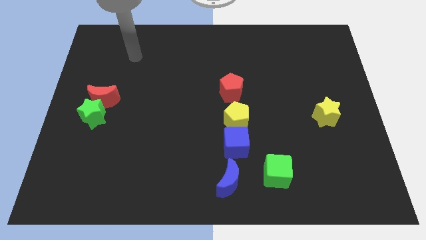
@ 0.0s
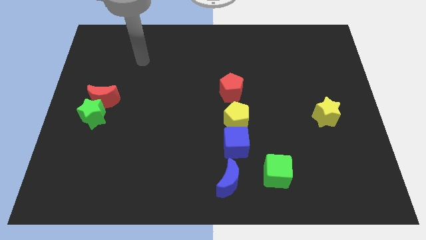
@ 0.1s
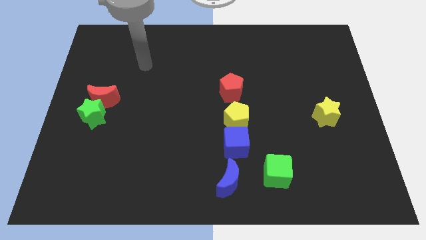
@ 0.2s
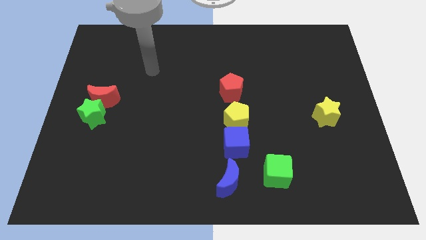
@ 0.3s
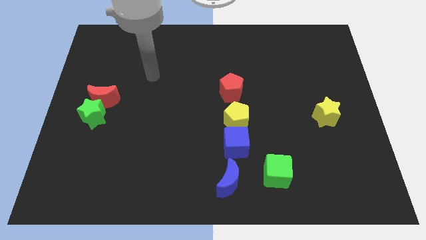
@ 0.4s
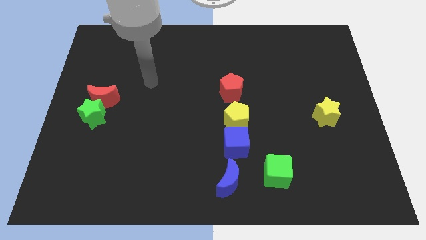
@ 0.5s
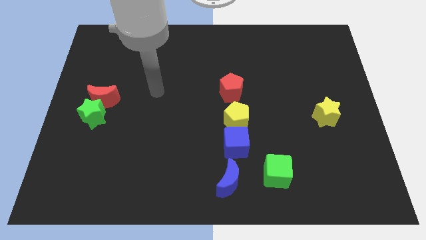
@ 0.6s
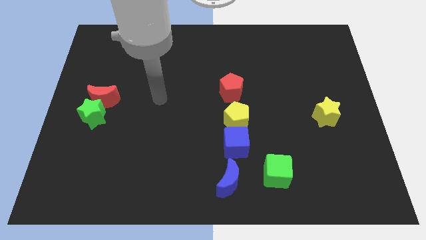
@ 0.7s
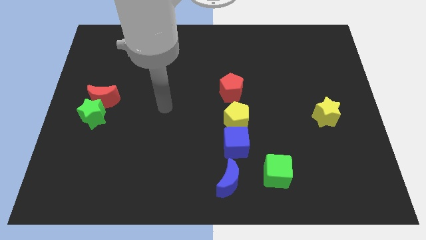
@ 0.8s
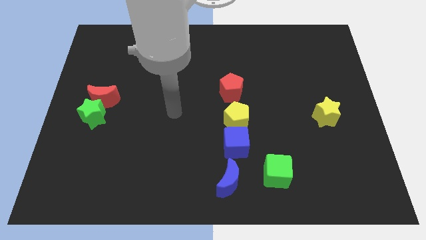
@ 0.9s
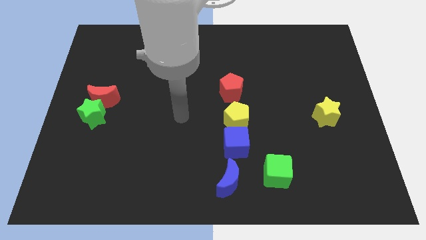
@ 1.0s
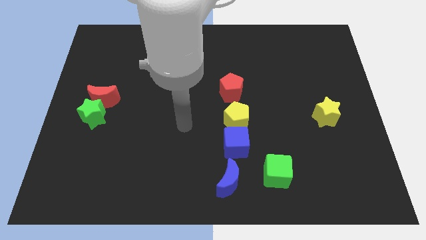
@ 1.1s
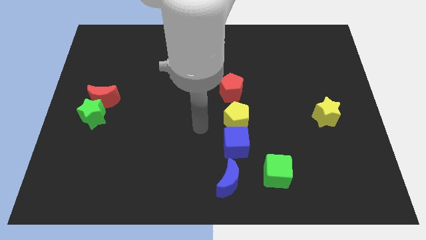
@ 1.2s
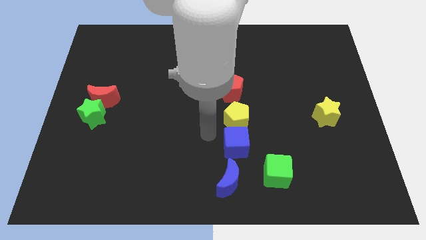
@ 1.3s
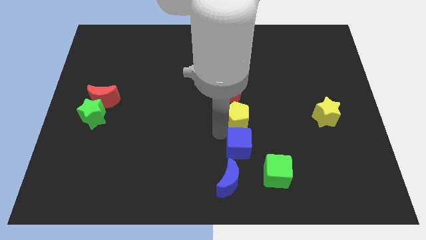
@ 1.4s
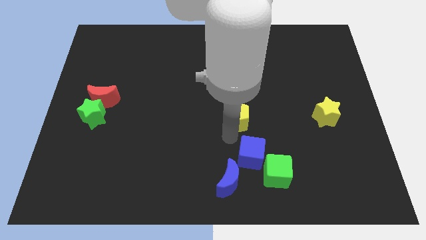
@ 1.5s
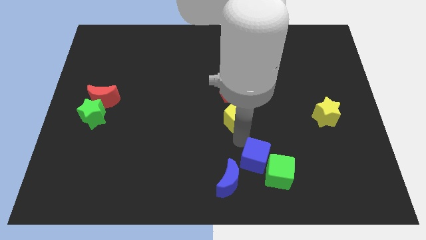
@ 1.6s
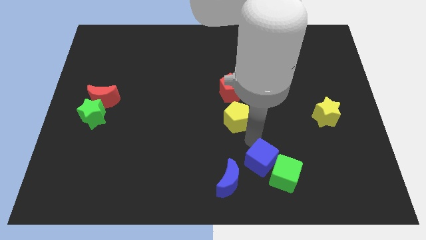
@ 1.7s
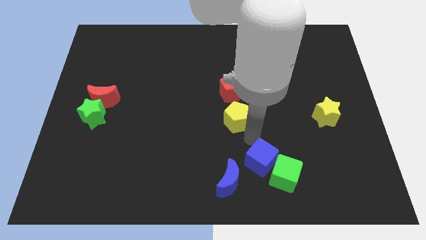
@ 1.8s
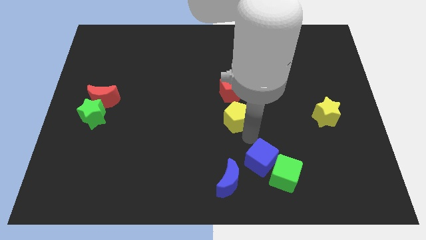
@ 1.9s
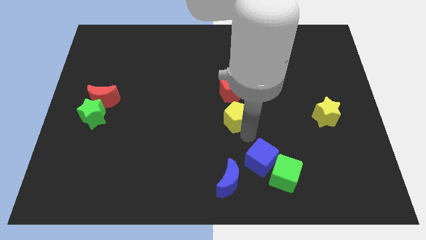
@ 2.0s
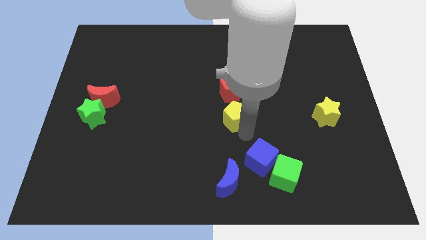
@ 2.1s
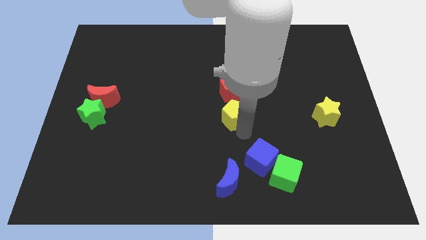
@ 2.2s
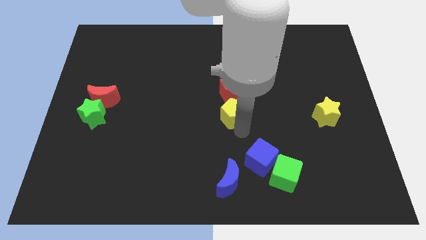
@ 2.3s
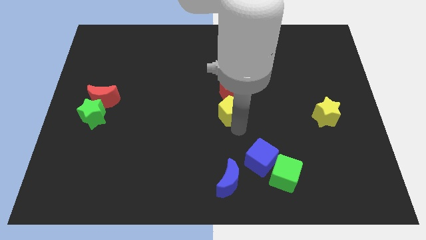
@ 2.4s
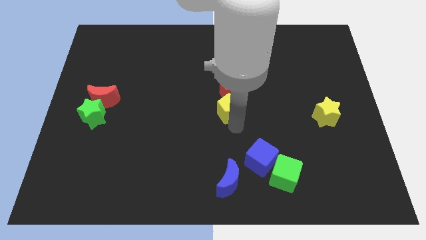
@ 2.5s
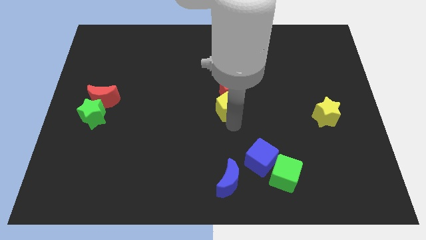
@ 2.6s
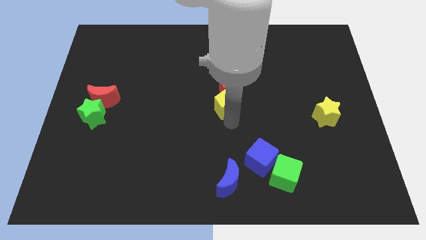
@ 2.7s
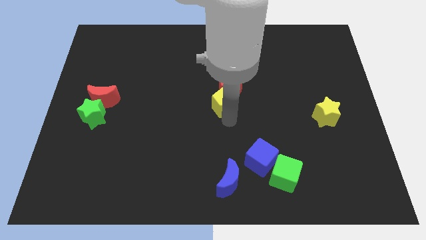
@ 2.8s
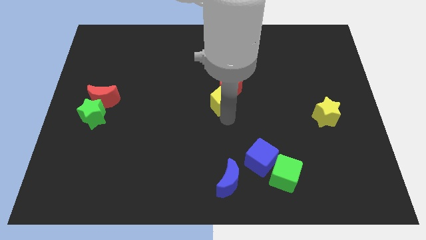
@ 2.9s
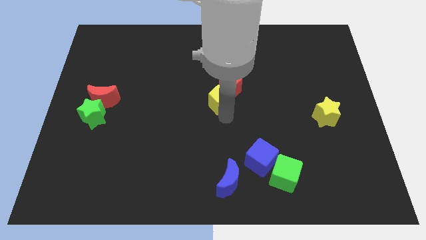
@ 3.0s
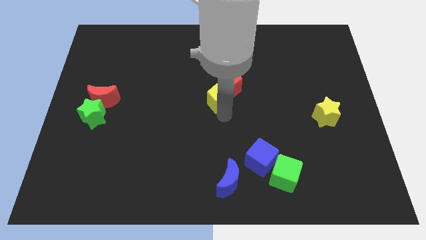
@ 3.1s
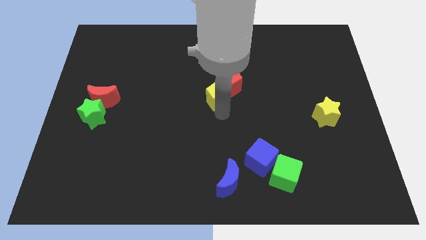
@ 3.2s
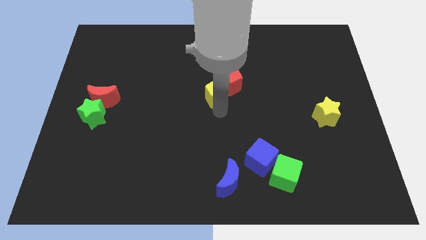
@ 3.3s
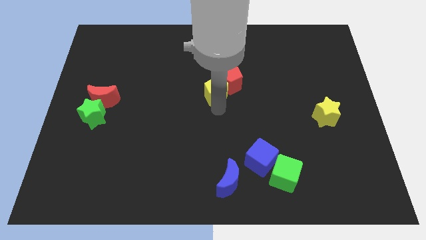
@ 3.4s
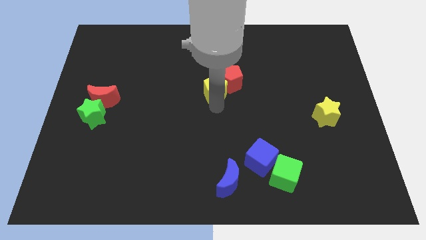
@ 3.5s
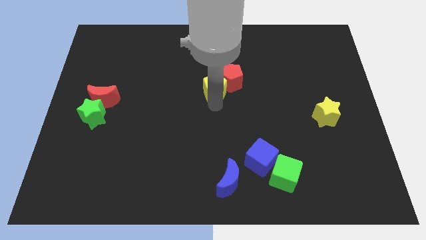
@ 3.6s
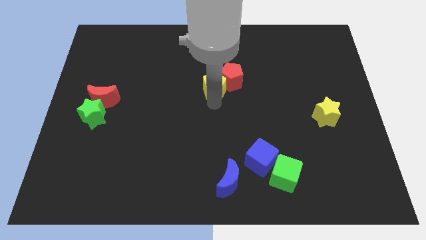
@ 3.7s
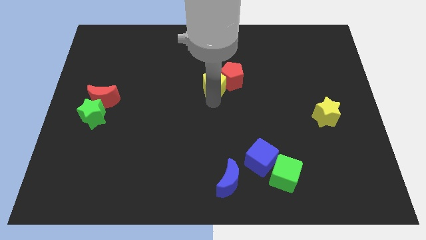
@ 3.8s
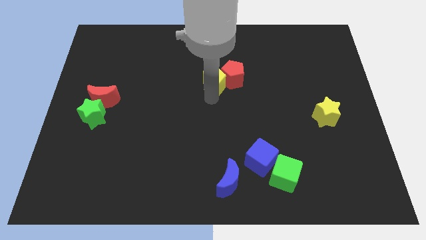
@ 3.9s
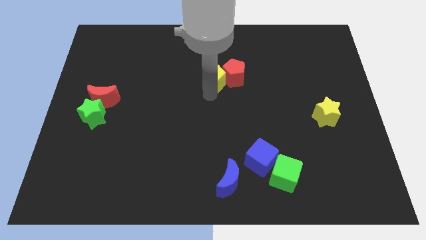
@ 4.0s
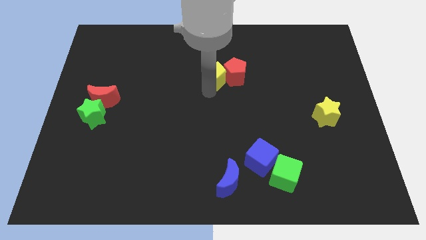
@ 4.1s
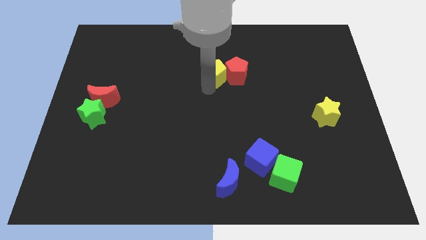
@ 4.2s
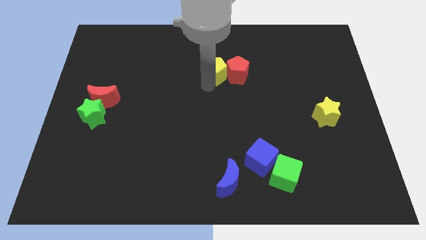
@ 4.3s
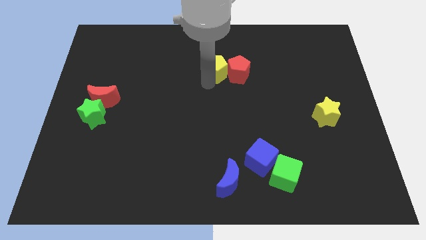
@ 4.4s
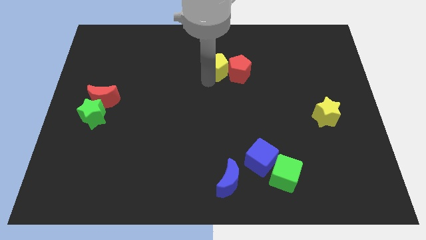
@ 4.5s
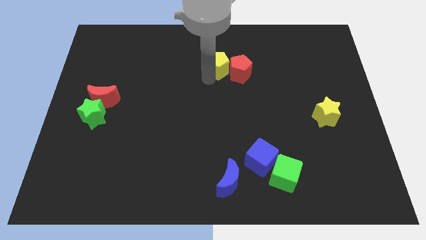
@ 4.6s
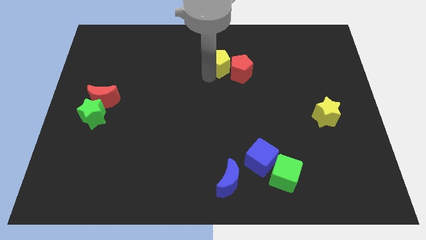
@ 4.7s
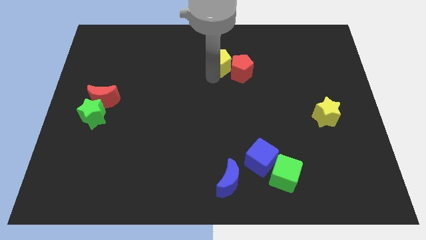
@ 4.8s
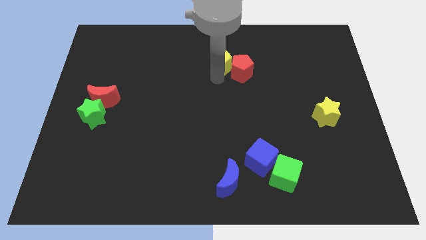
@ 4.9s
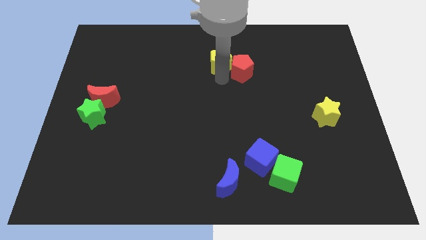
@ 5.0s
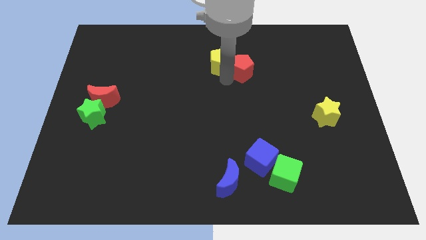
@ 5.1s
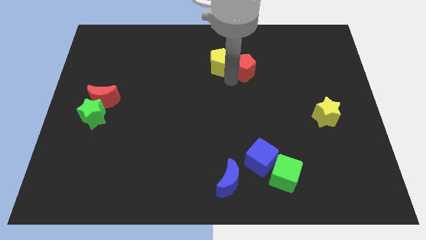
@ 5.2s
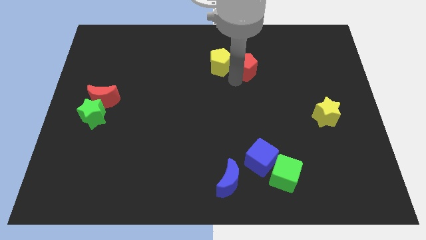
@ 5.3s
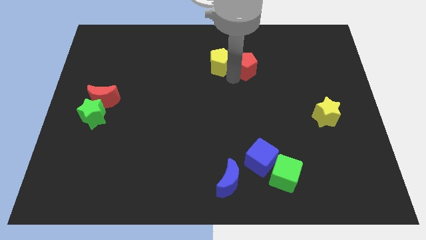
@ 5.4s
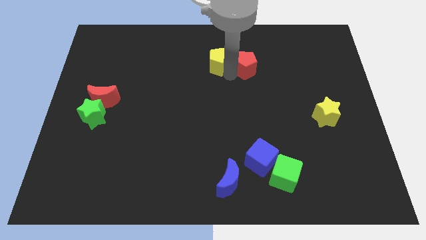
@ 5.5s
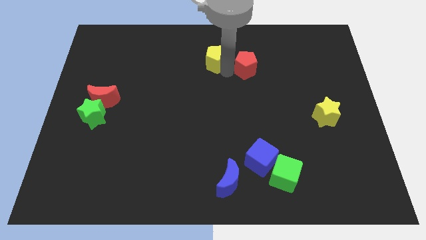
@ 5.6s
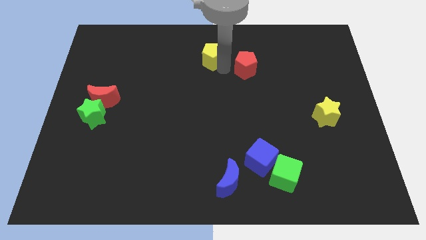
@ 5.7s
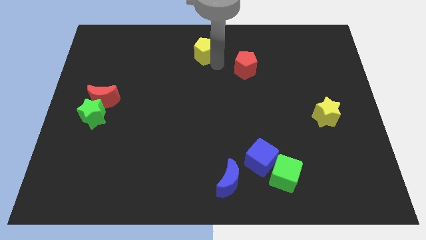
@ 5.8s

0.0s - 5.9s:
push the yellow pentagon to the top
